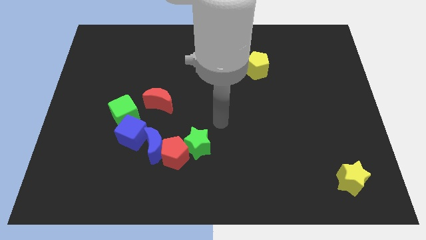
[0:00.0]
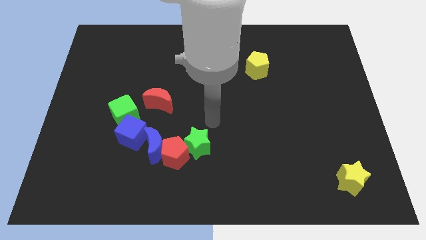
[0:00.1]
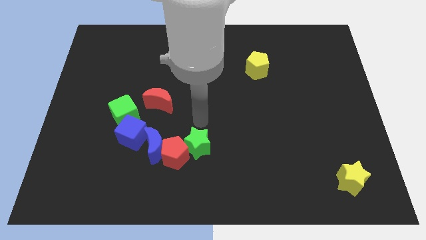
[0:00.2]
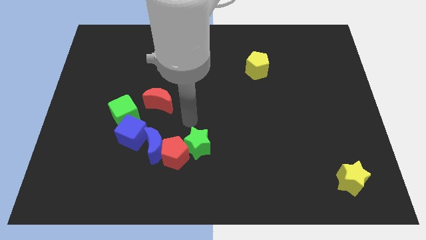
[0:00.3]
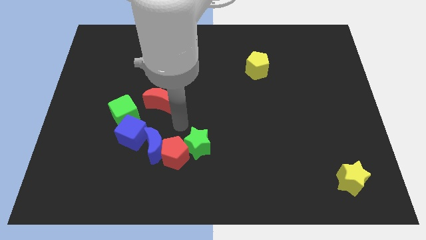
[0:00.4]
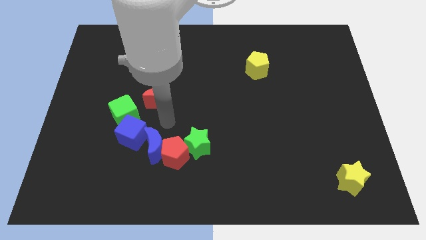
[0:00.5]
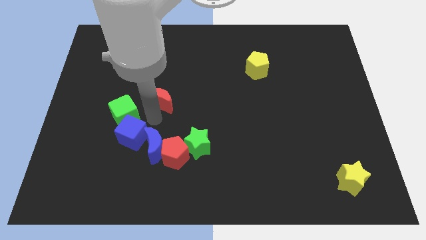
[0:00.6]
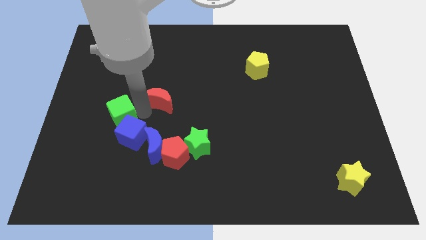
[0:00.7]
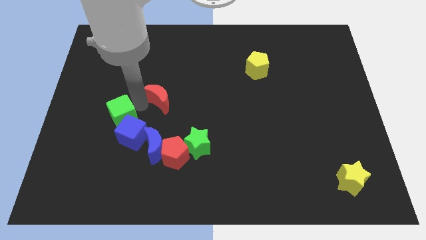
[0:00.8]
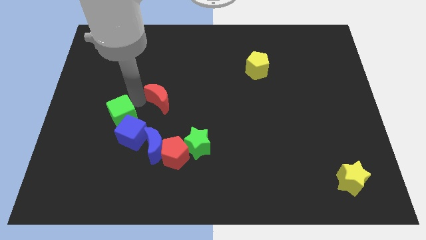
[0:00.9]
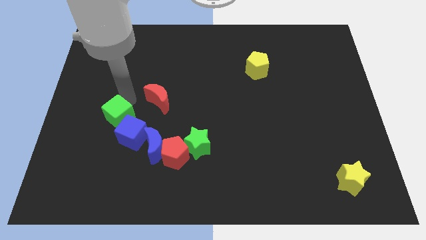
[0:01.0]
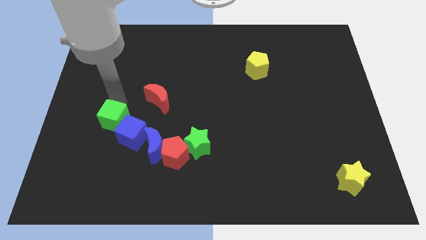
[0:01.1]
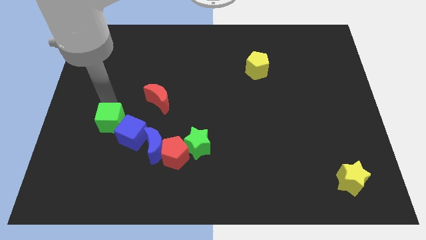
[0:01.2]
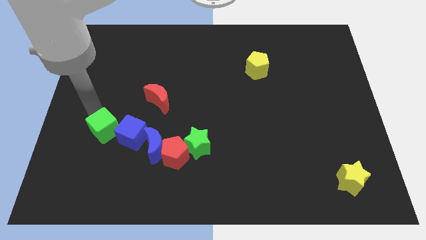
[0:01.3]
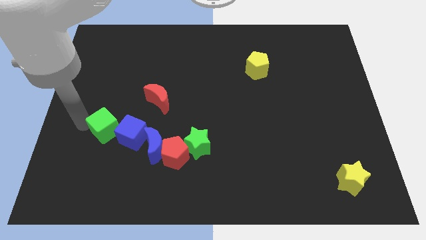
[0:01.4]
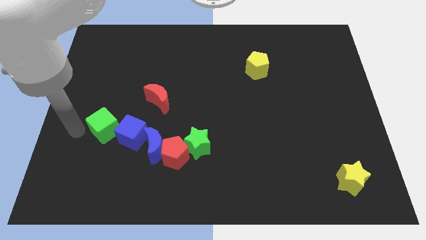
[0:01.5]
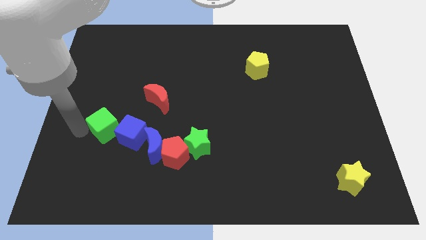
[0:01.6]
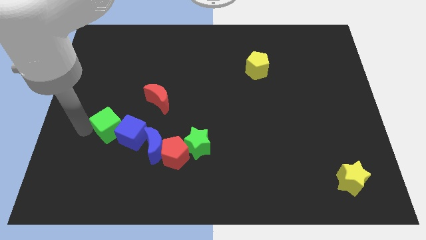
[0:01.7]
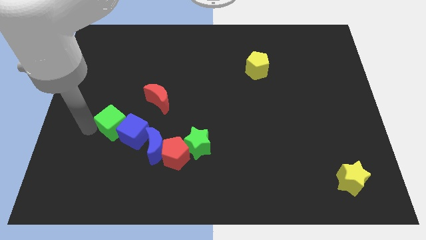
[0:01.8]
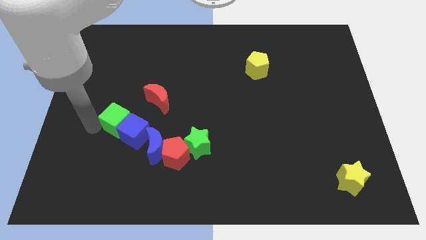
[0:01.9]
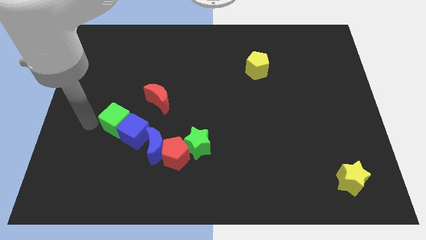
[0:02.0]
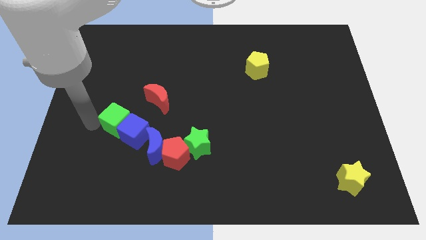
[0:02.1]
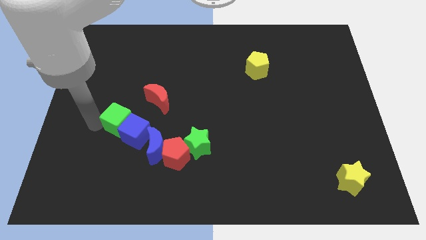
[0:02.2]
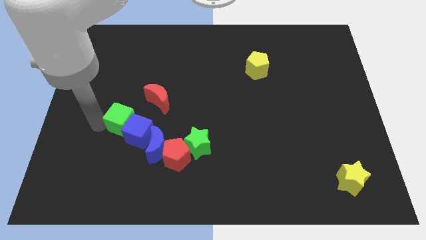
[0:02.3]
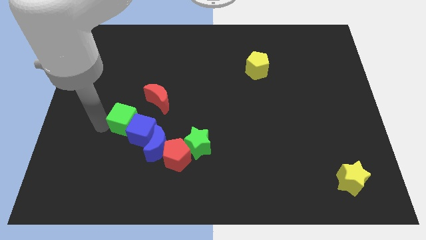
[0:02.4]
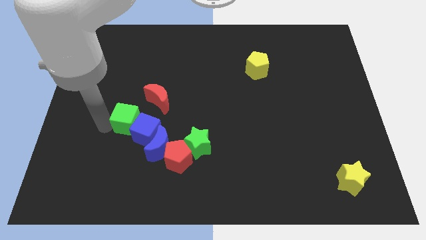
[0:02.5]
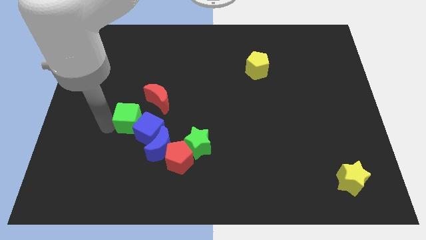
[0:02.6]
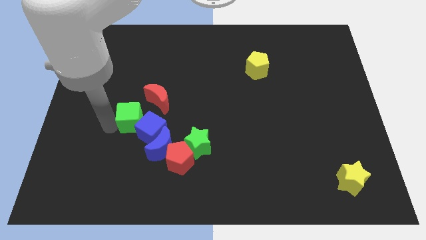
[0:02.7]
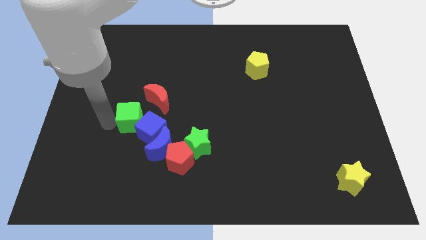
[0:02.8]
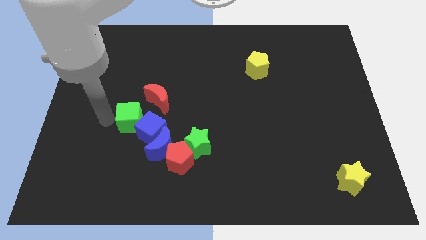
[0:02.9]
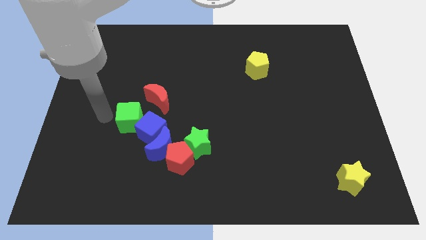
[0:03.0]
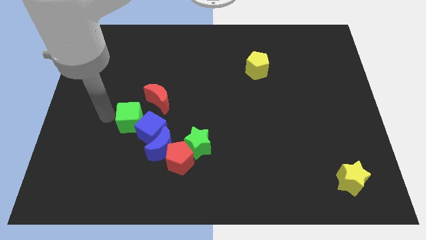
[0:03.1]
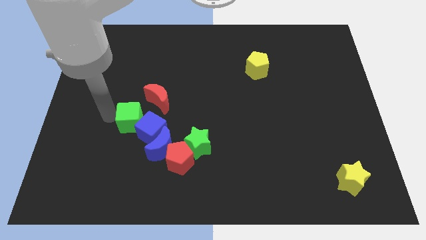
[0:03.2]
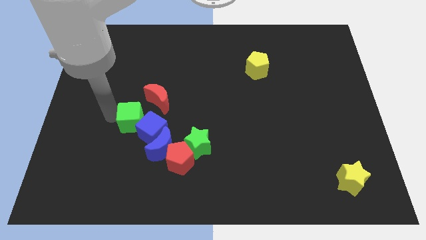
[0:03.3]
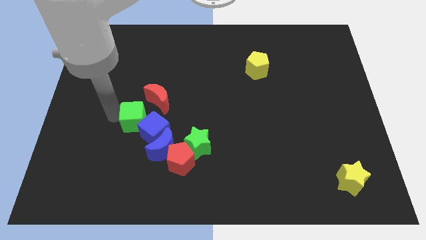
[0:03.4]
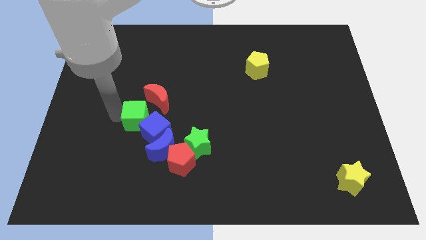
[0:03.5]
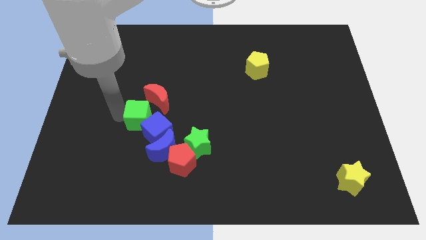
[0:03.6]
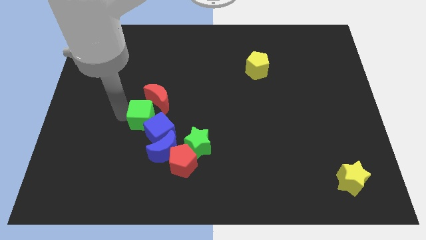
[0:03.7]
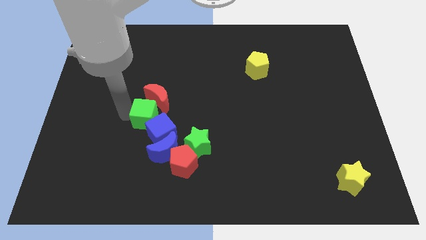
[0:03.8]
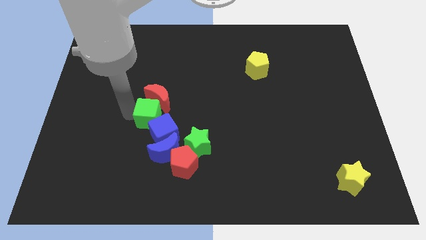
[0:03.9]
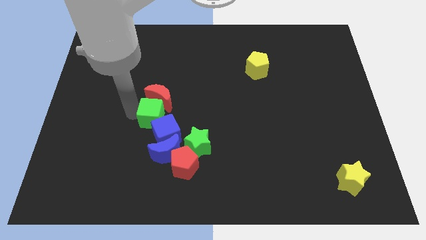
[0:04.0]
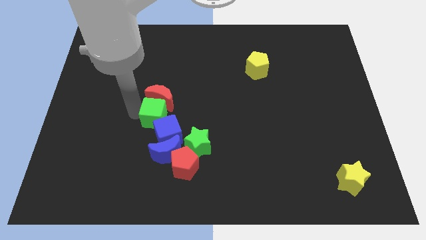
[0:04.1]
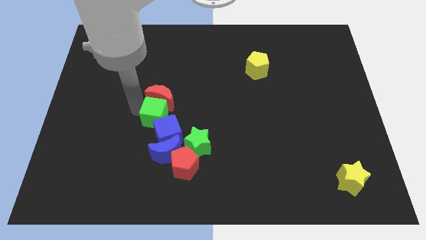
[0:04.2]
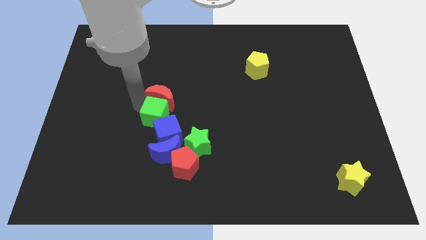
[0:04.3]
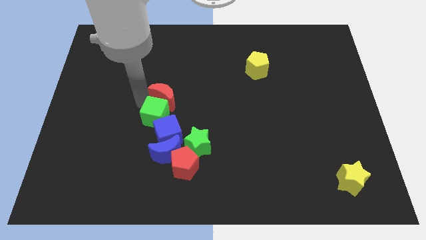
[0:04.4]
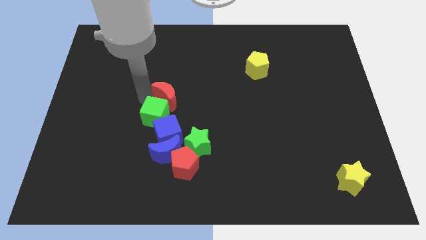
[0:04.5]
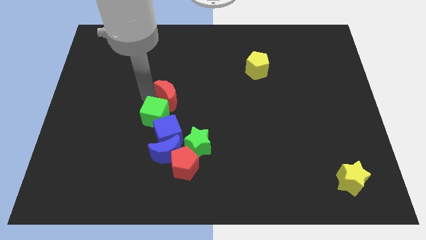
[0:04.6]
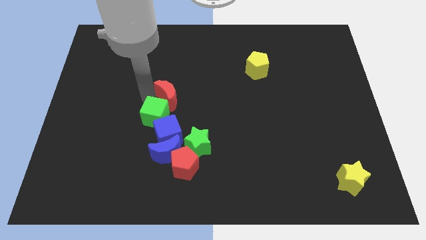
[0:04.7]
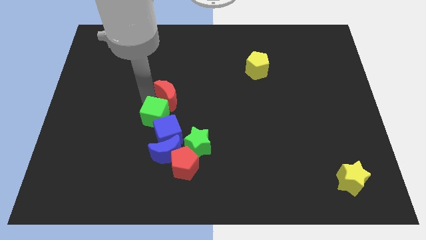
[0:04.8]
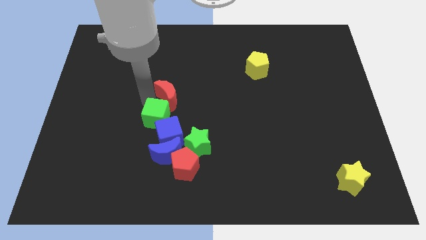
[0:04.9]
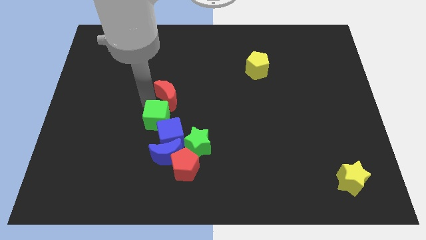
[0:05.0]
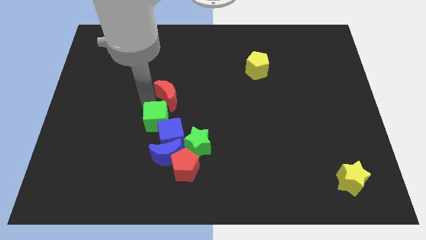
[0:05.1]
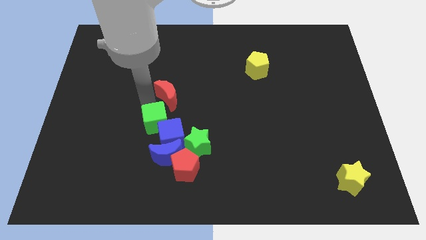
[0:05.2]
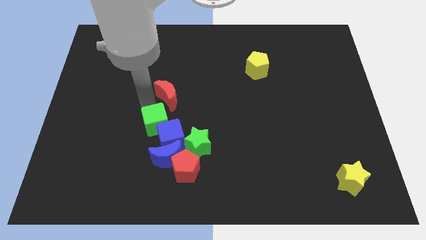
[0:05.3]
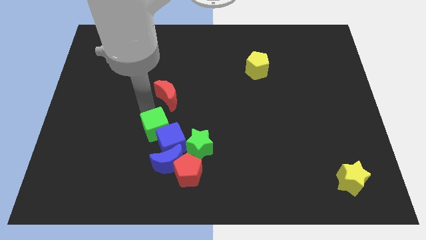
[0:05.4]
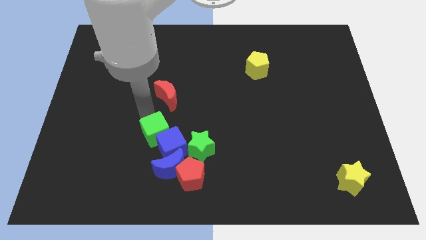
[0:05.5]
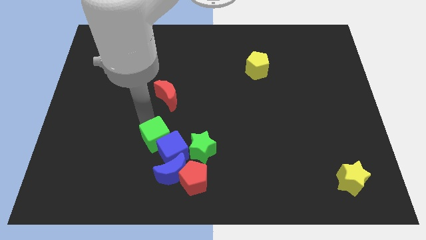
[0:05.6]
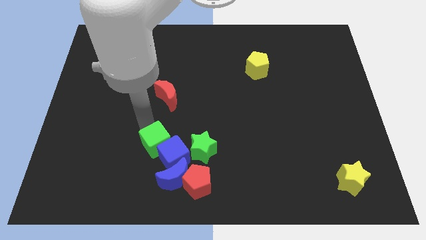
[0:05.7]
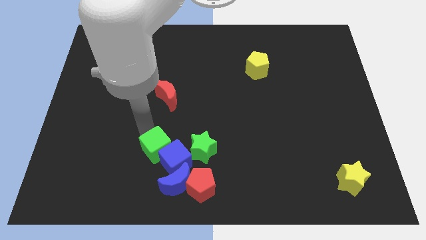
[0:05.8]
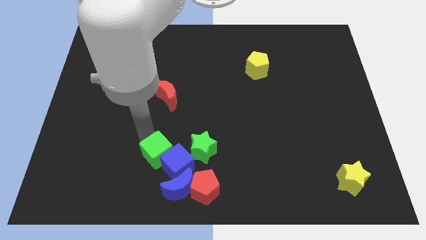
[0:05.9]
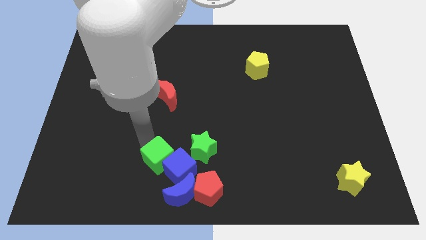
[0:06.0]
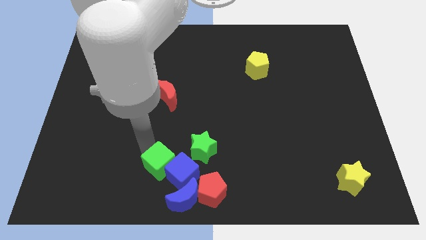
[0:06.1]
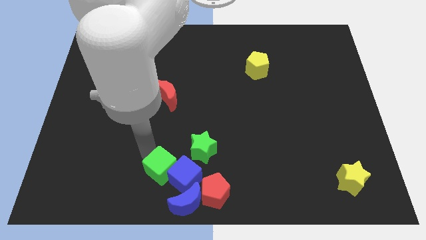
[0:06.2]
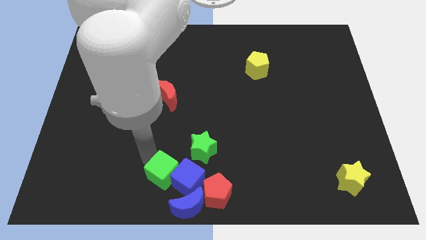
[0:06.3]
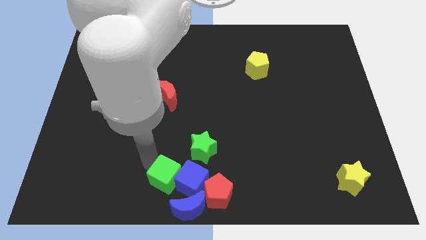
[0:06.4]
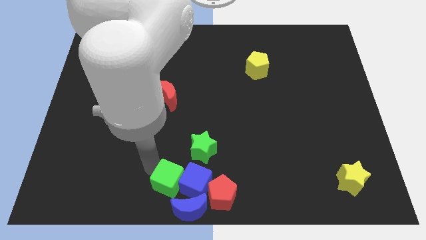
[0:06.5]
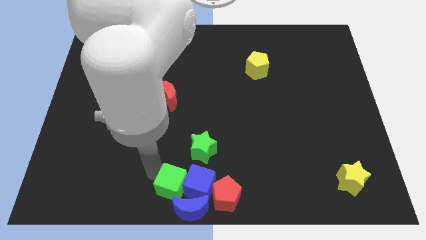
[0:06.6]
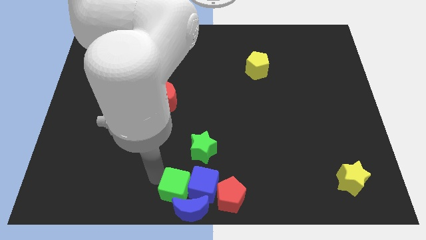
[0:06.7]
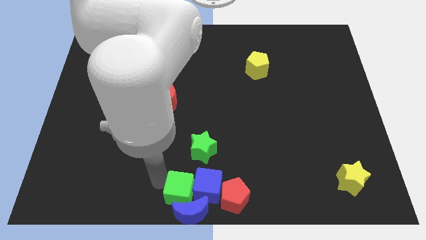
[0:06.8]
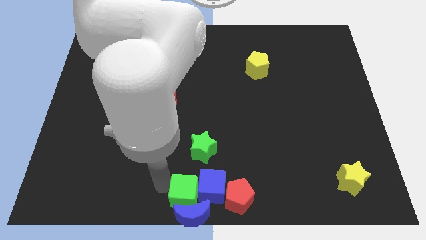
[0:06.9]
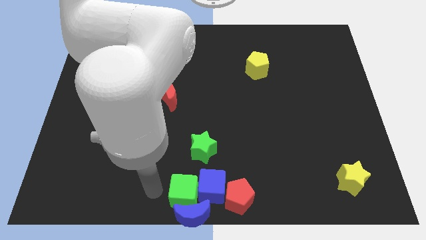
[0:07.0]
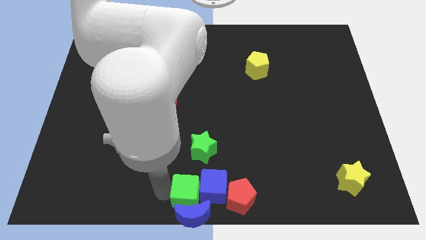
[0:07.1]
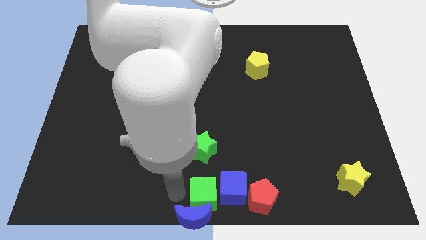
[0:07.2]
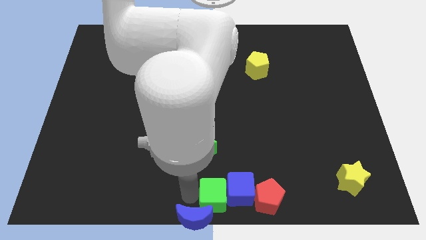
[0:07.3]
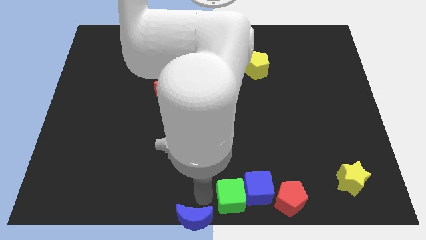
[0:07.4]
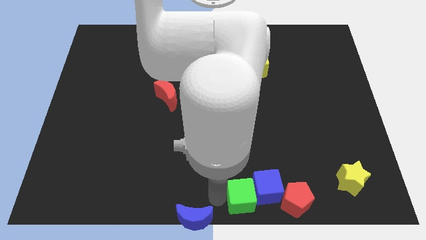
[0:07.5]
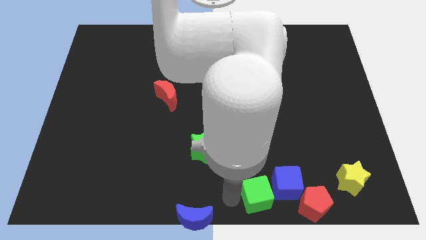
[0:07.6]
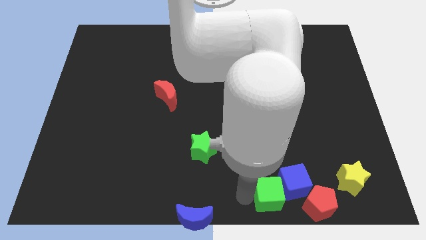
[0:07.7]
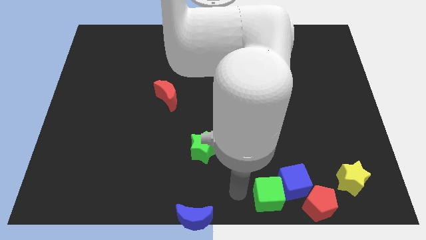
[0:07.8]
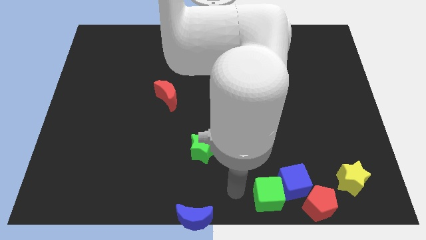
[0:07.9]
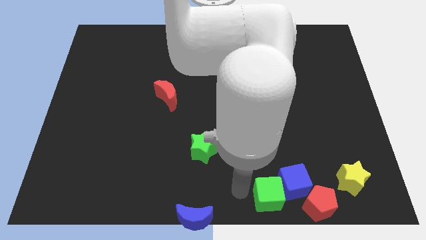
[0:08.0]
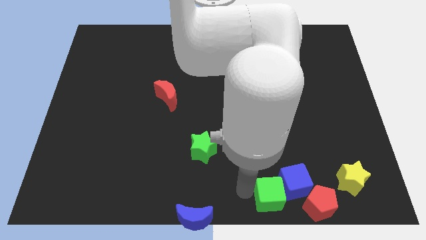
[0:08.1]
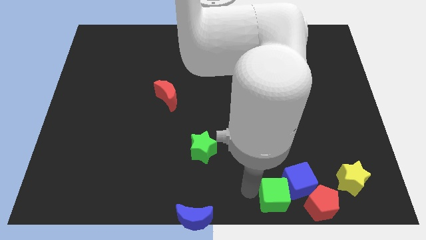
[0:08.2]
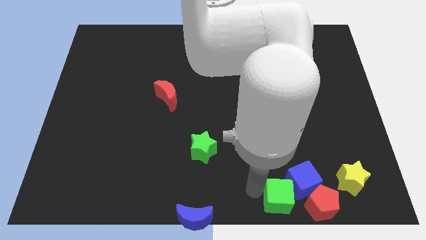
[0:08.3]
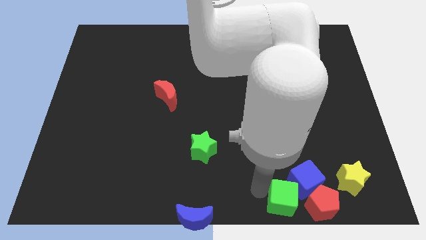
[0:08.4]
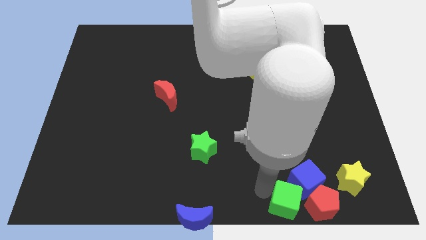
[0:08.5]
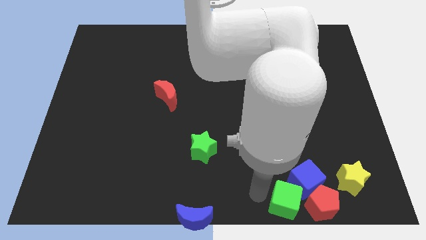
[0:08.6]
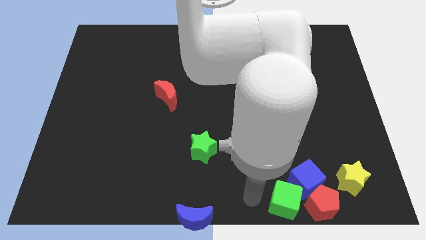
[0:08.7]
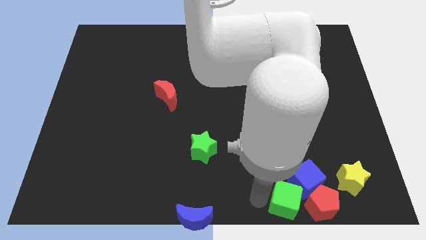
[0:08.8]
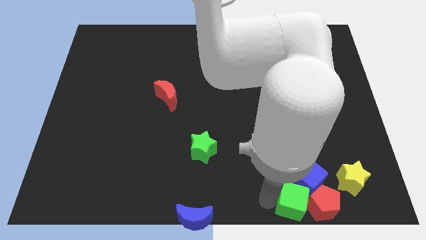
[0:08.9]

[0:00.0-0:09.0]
move the green cube to the red pentagon
